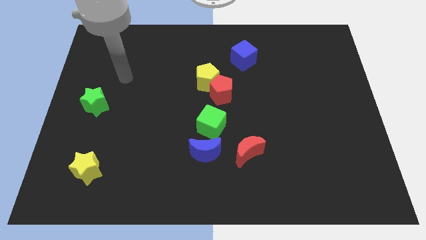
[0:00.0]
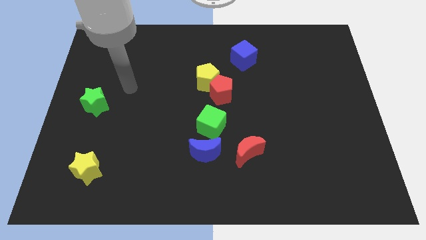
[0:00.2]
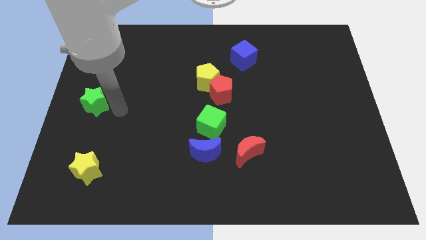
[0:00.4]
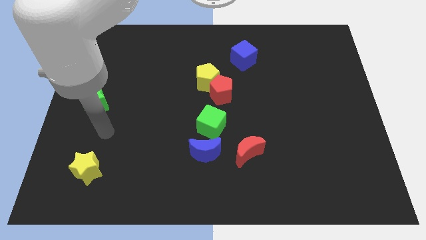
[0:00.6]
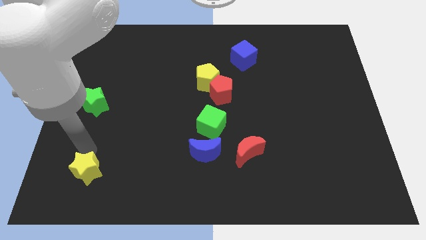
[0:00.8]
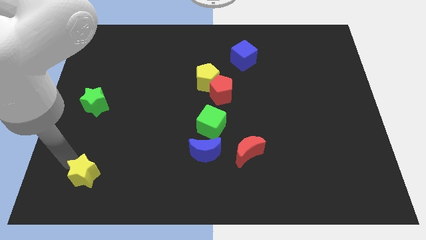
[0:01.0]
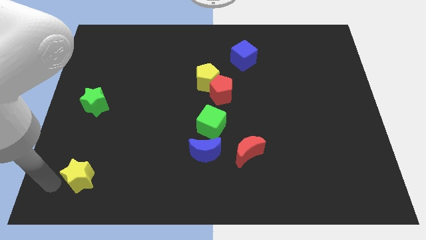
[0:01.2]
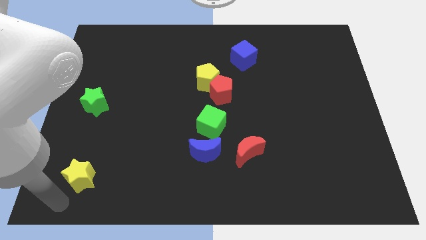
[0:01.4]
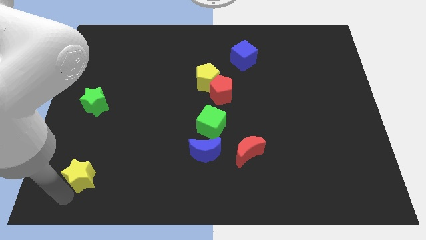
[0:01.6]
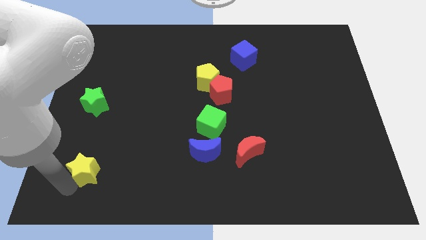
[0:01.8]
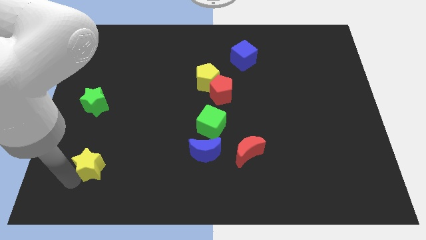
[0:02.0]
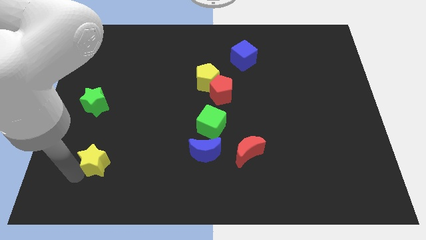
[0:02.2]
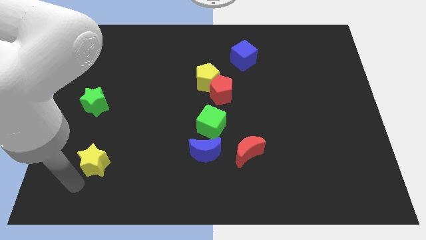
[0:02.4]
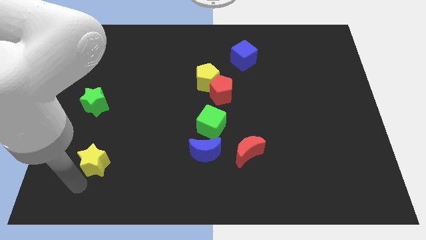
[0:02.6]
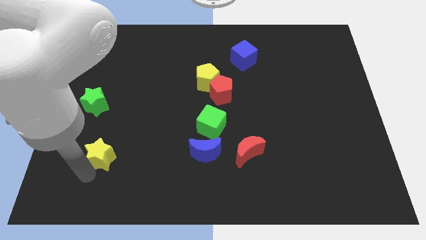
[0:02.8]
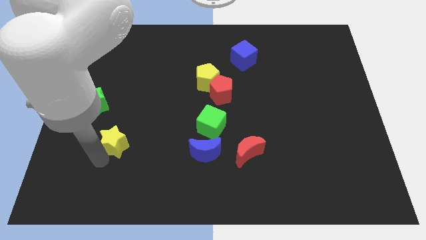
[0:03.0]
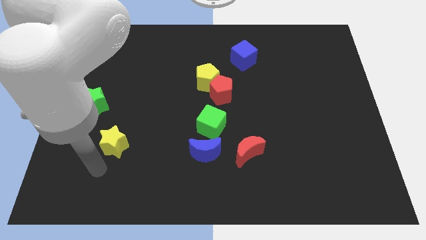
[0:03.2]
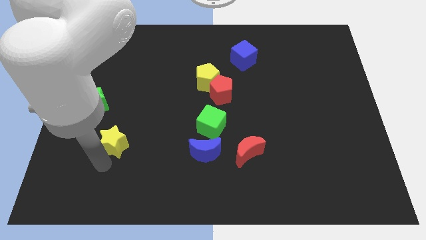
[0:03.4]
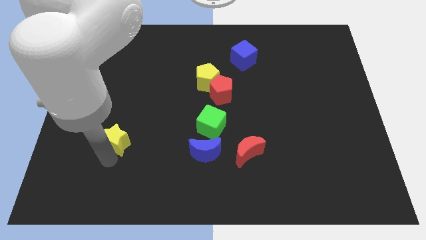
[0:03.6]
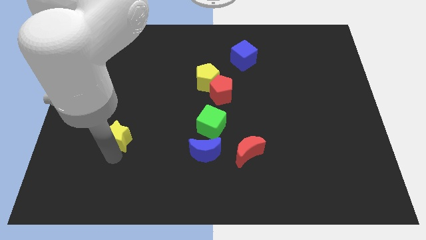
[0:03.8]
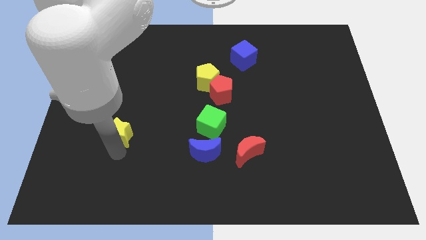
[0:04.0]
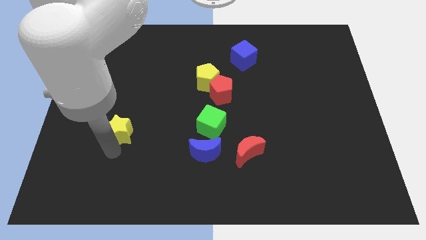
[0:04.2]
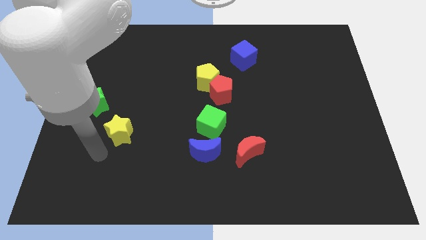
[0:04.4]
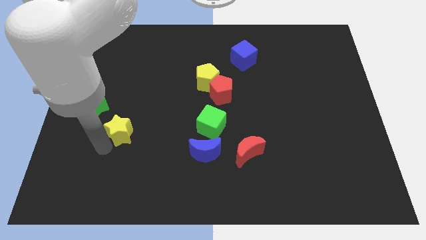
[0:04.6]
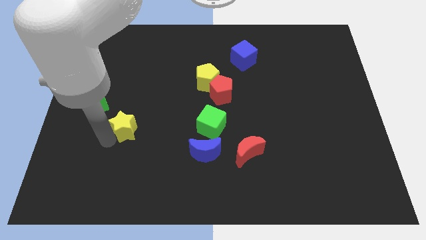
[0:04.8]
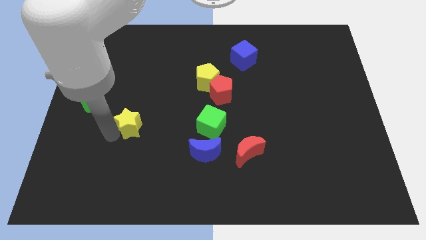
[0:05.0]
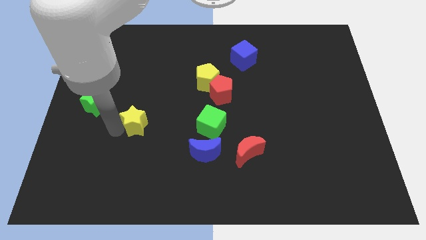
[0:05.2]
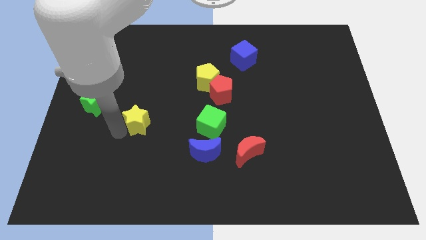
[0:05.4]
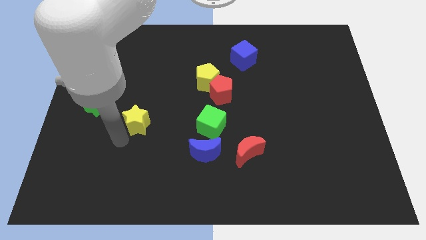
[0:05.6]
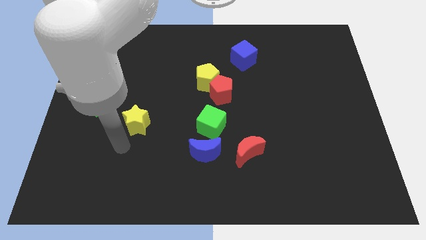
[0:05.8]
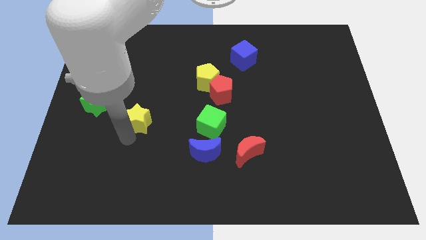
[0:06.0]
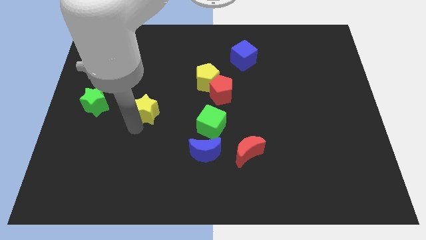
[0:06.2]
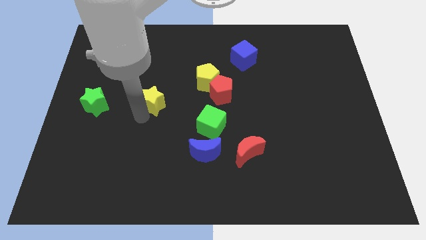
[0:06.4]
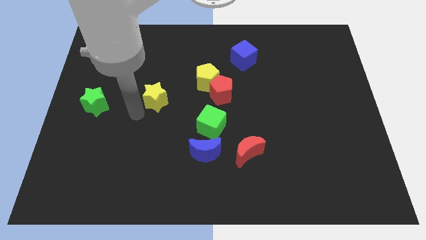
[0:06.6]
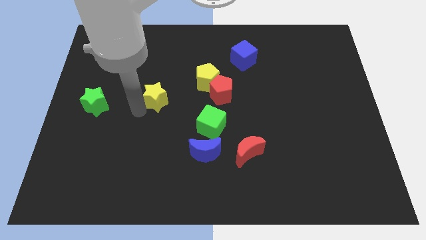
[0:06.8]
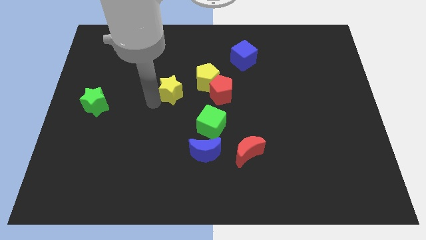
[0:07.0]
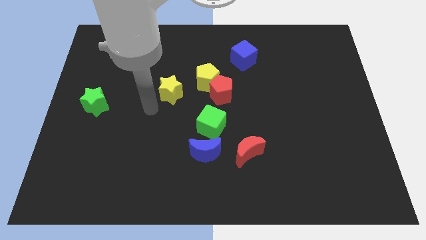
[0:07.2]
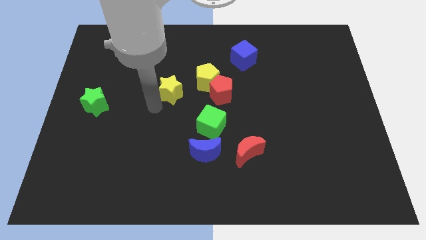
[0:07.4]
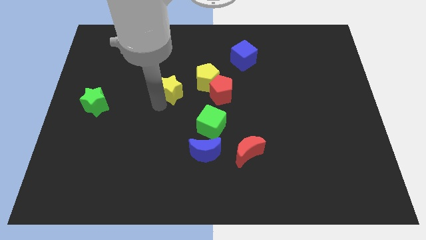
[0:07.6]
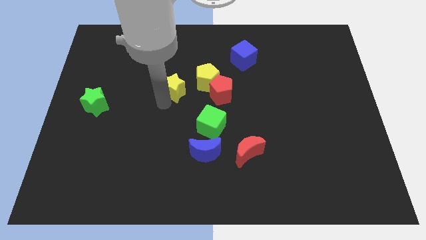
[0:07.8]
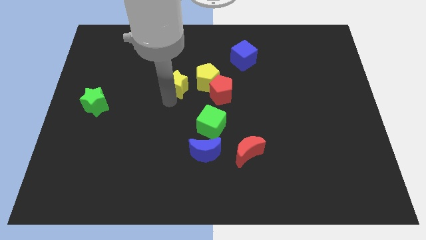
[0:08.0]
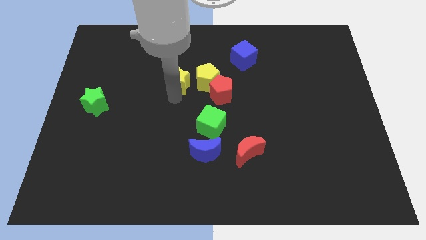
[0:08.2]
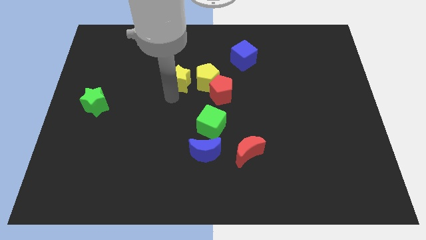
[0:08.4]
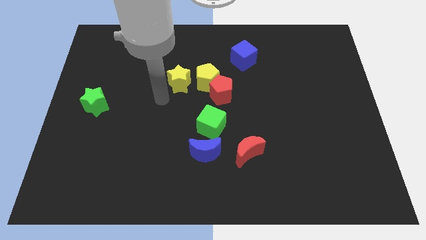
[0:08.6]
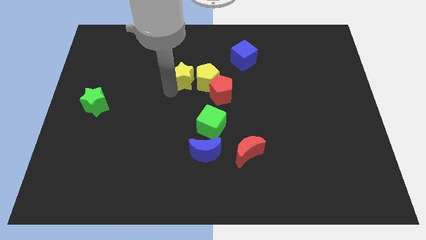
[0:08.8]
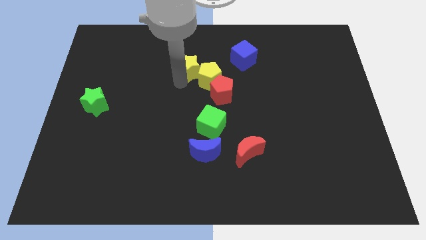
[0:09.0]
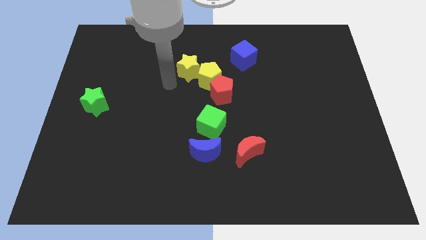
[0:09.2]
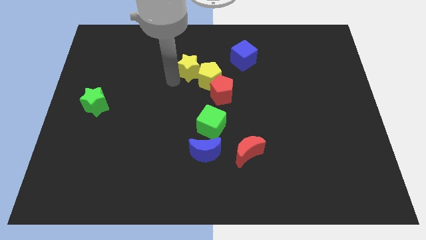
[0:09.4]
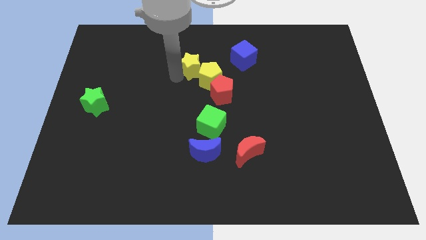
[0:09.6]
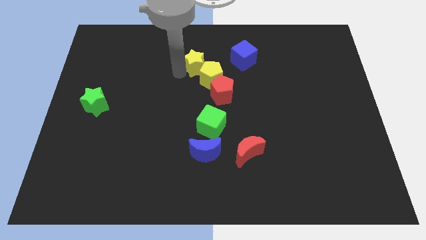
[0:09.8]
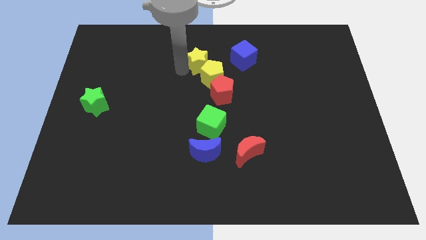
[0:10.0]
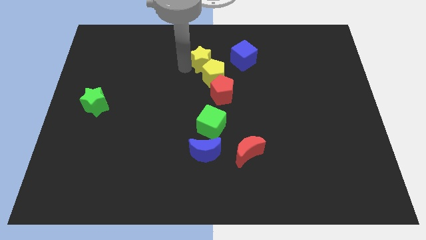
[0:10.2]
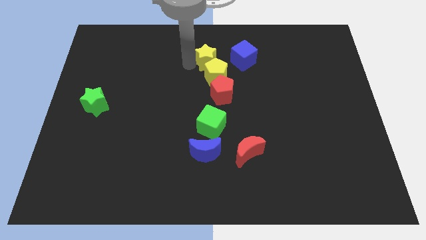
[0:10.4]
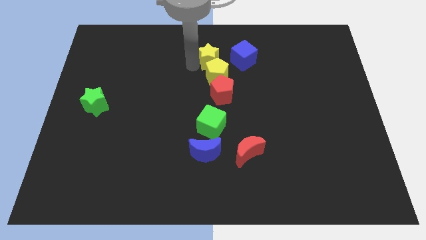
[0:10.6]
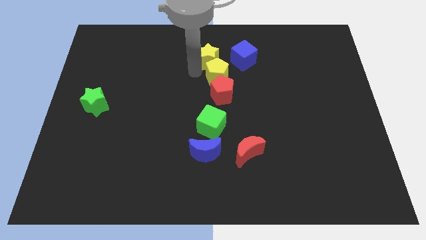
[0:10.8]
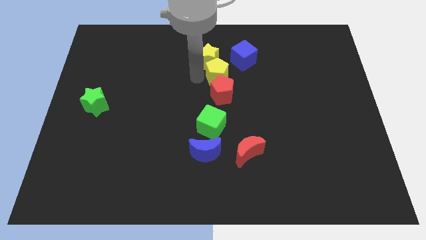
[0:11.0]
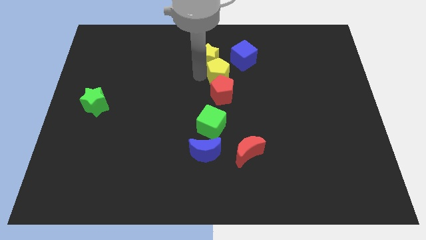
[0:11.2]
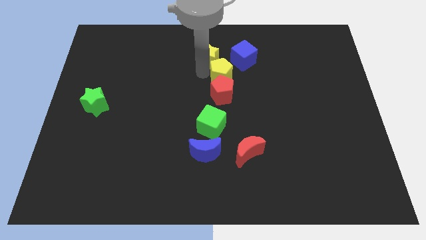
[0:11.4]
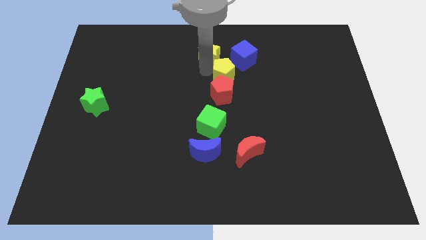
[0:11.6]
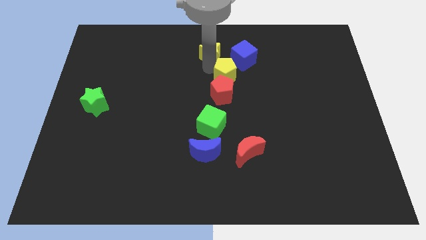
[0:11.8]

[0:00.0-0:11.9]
push the yellow star to the towards your base

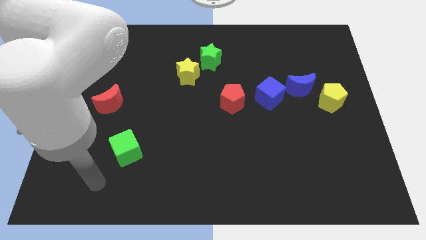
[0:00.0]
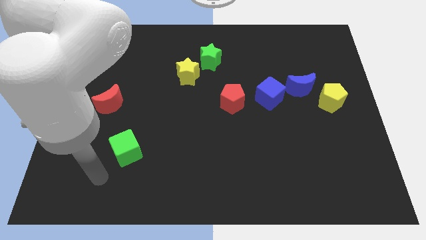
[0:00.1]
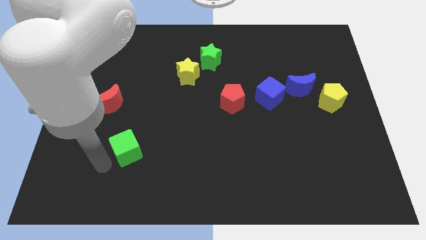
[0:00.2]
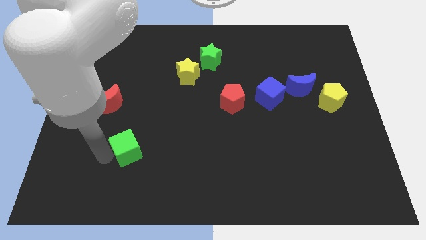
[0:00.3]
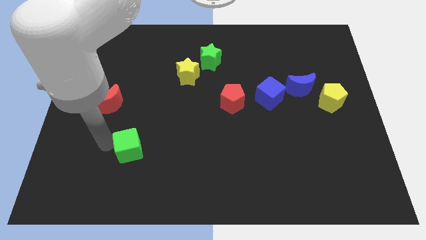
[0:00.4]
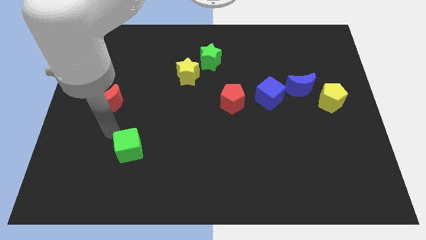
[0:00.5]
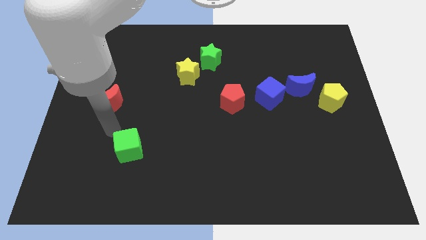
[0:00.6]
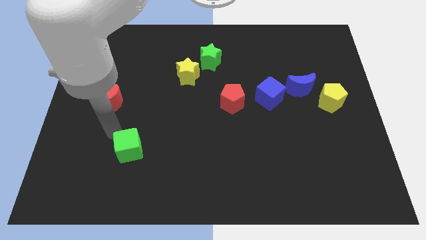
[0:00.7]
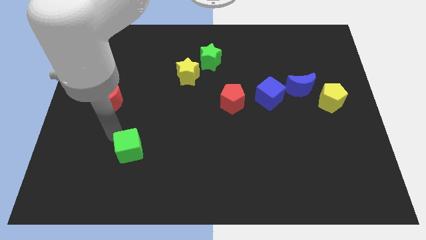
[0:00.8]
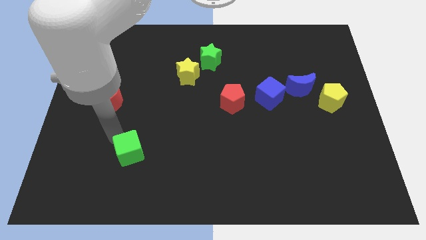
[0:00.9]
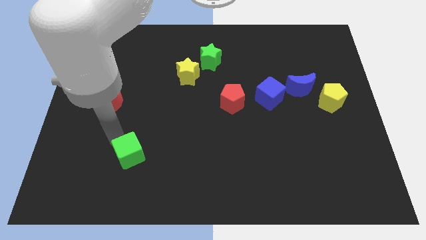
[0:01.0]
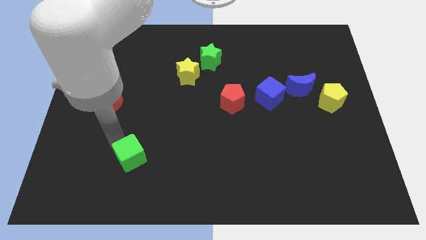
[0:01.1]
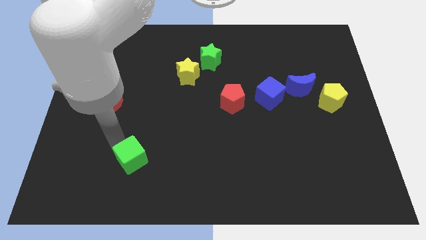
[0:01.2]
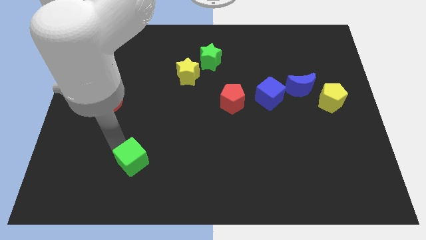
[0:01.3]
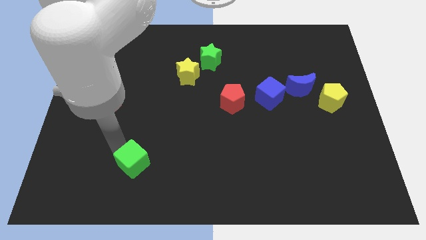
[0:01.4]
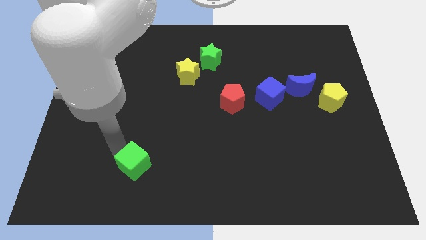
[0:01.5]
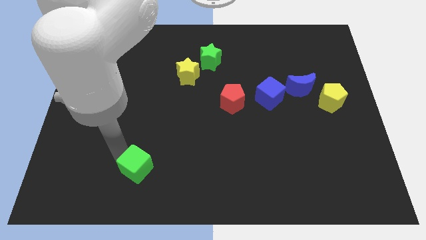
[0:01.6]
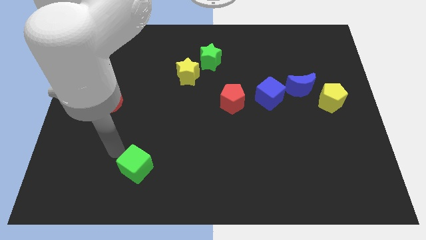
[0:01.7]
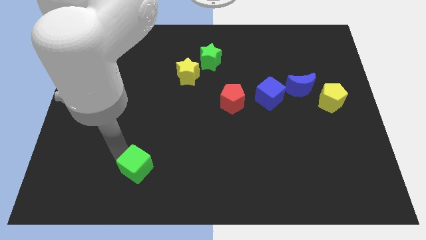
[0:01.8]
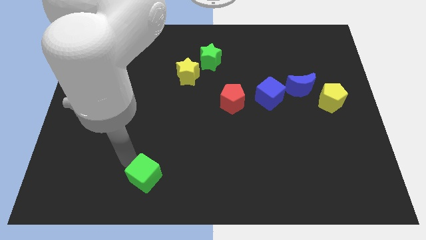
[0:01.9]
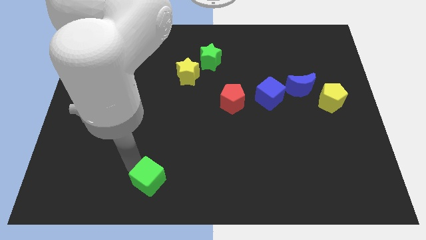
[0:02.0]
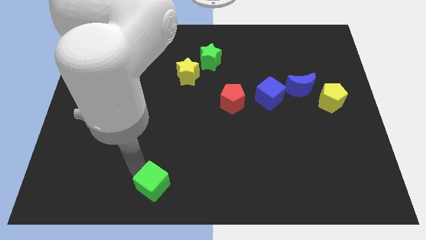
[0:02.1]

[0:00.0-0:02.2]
put the green cube to the bottom
